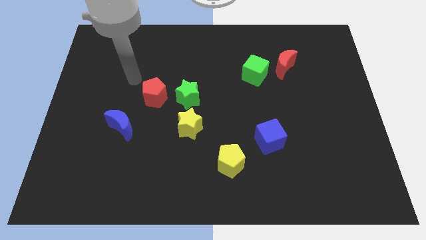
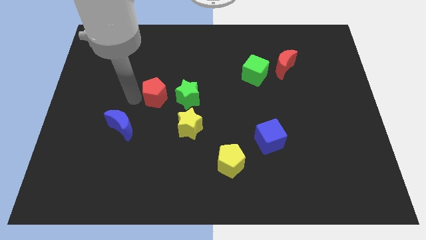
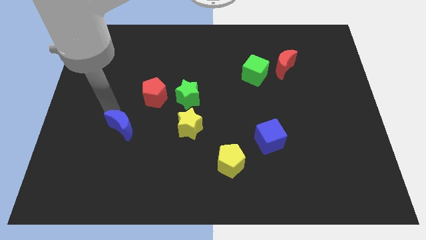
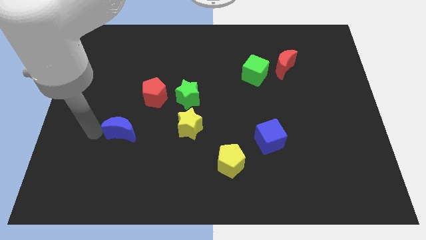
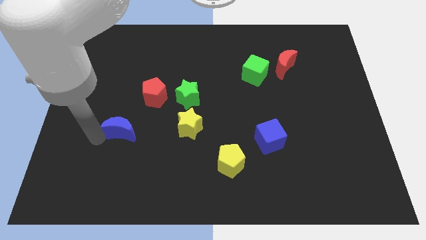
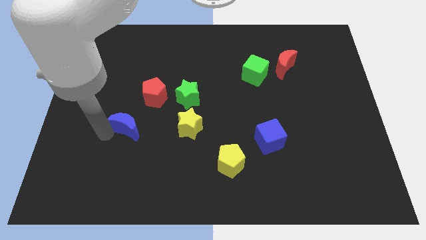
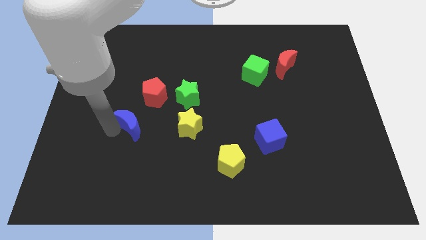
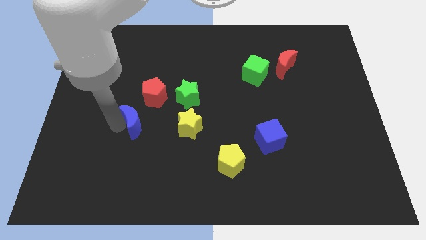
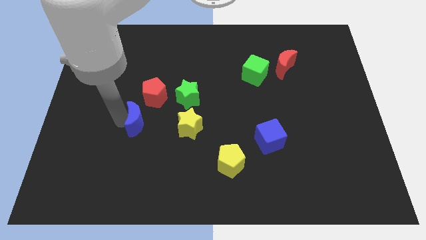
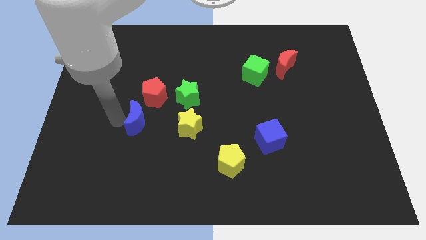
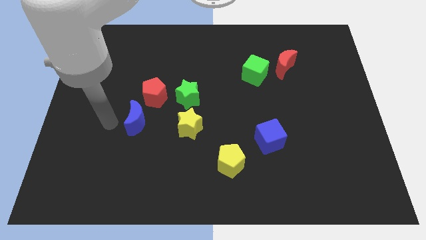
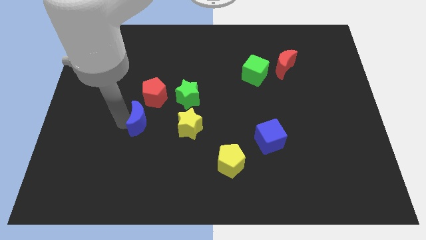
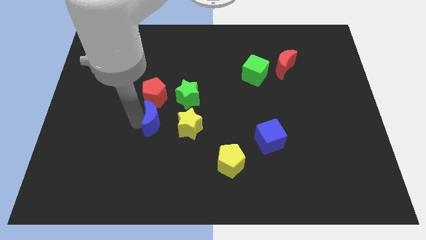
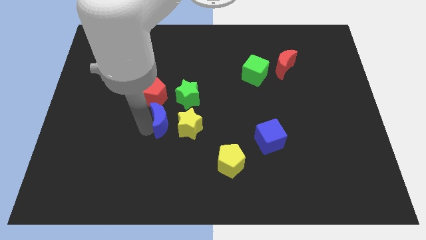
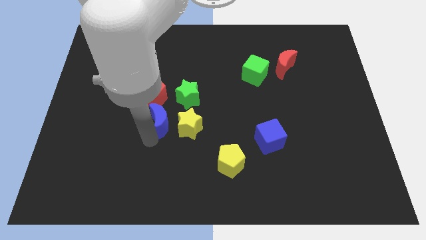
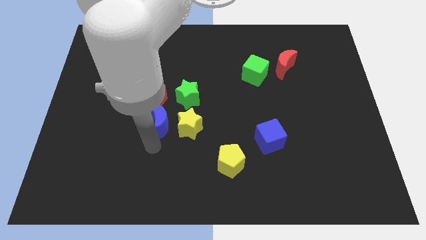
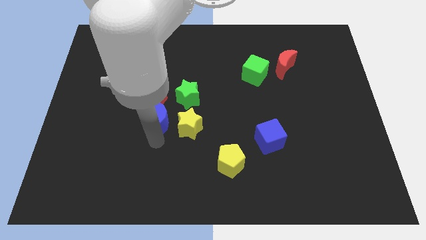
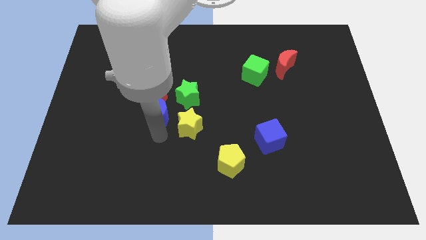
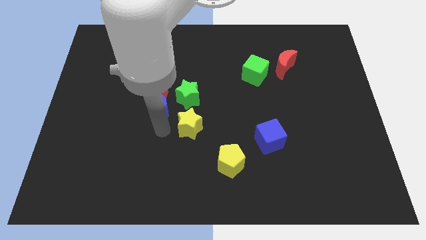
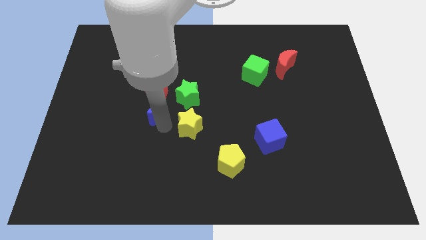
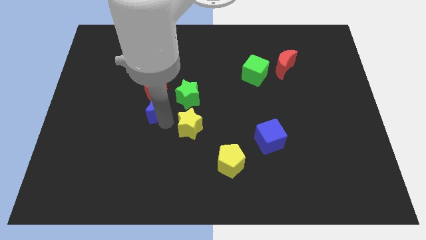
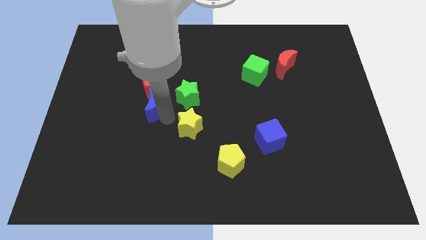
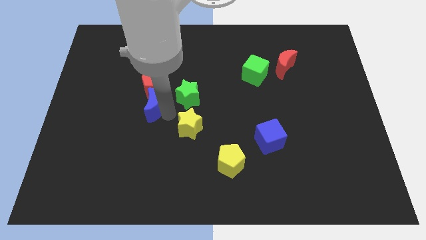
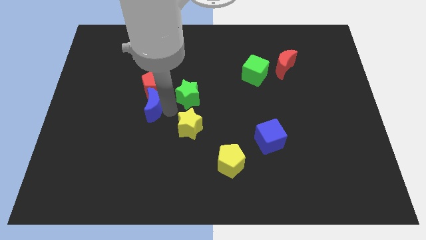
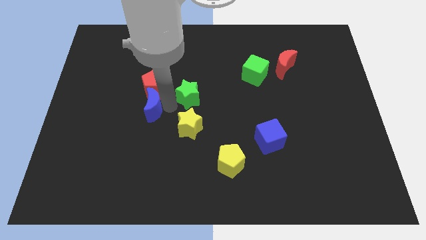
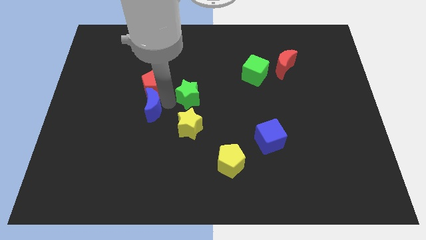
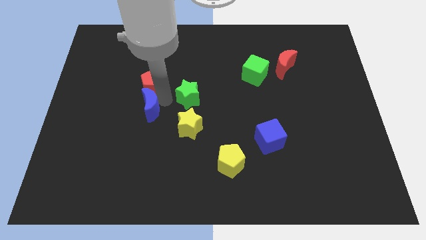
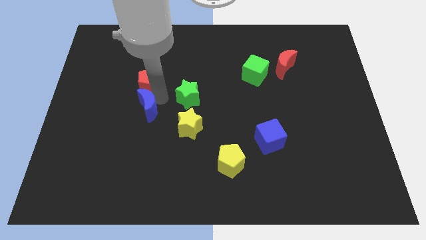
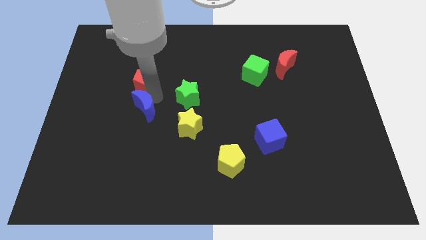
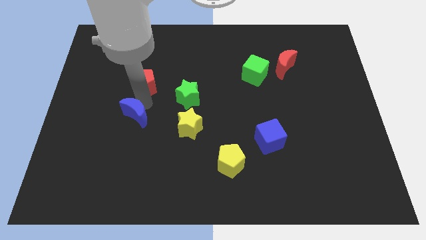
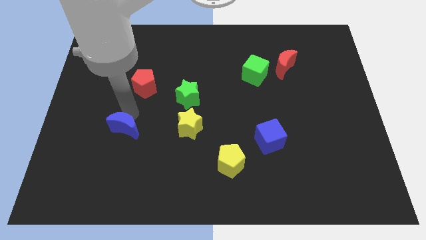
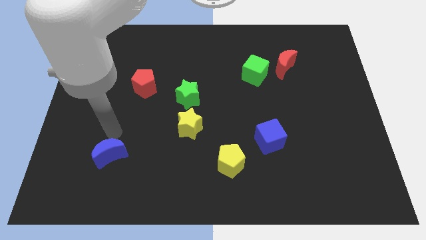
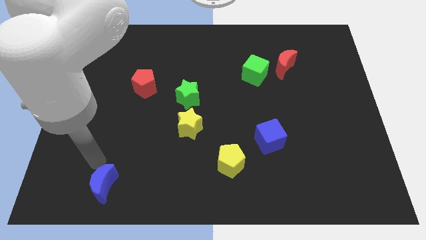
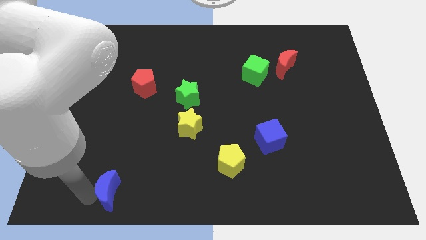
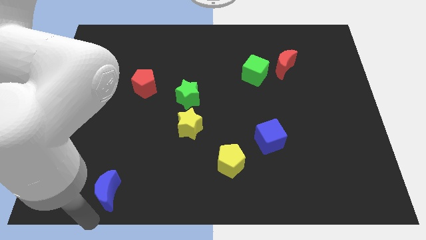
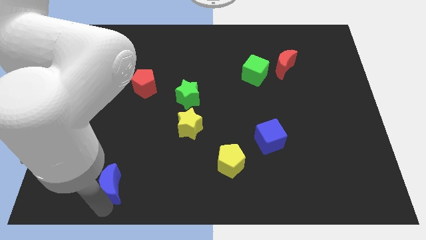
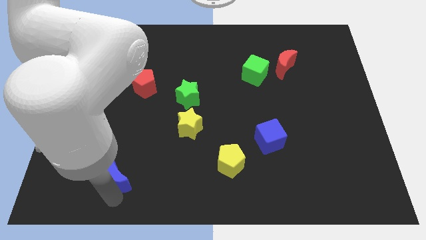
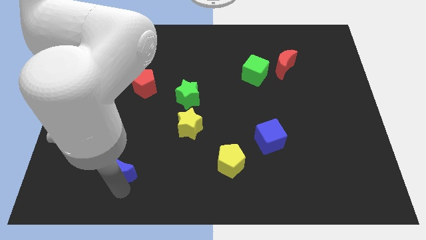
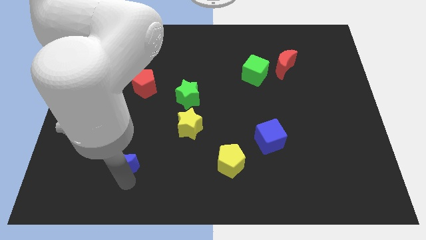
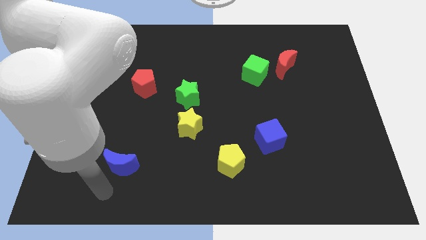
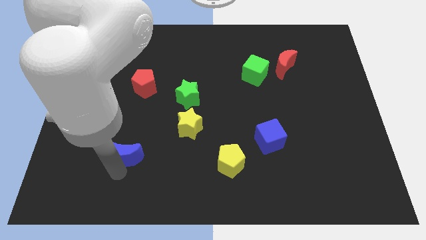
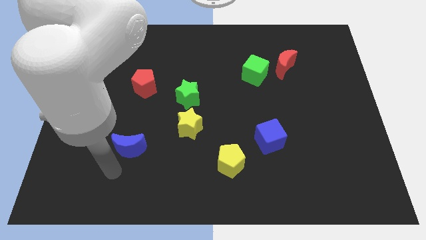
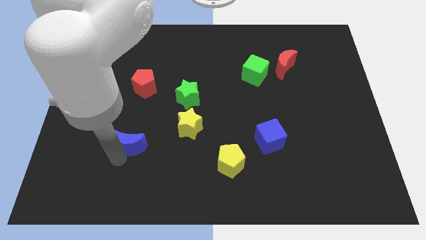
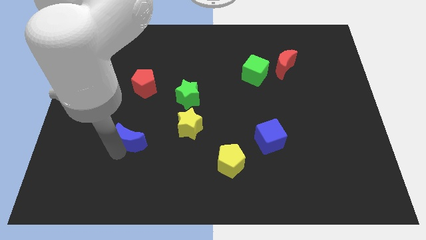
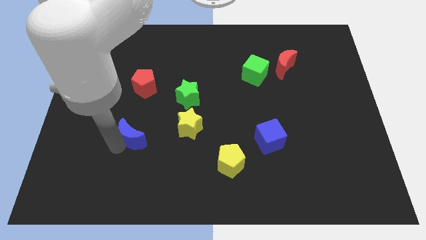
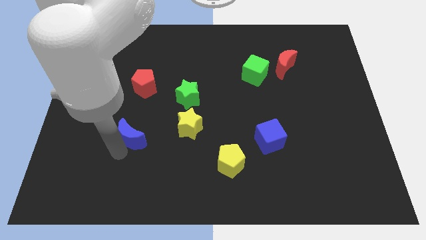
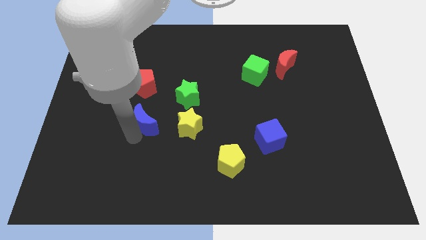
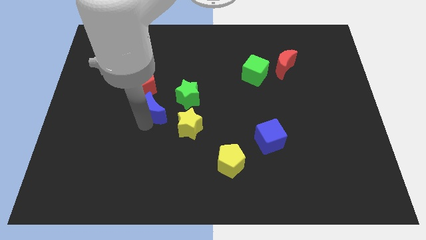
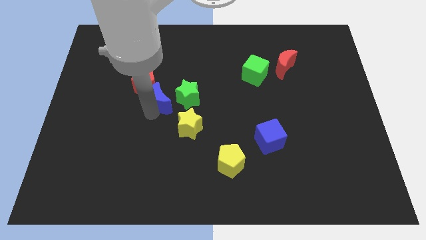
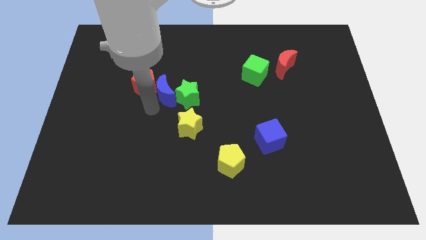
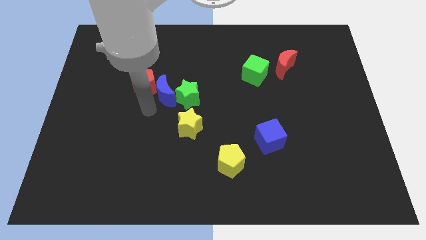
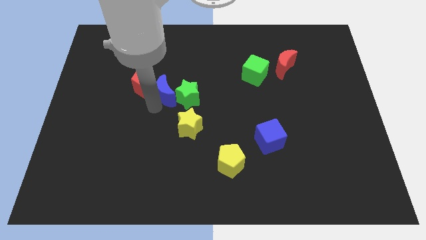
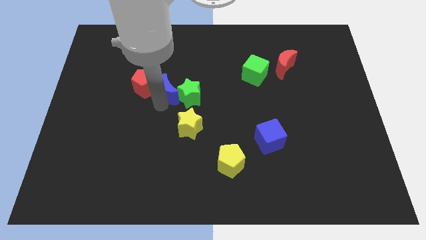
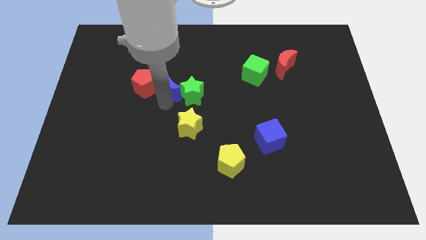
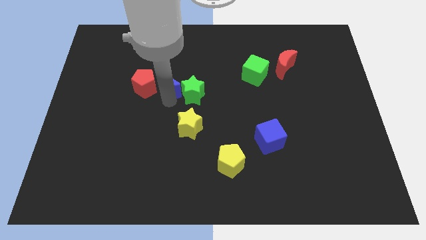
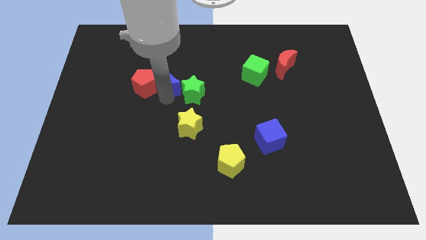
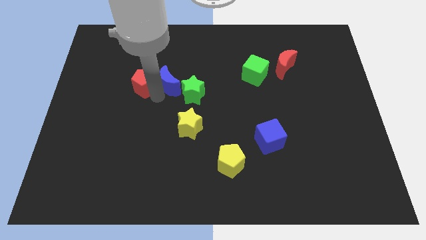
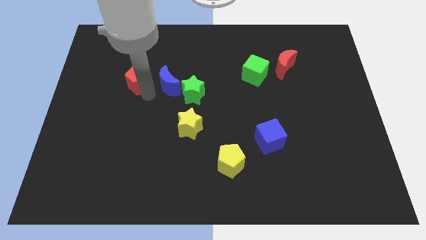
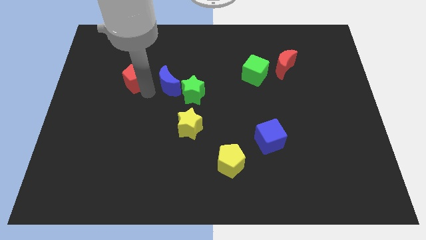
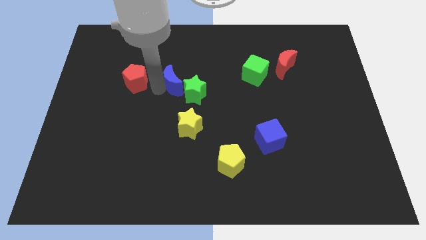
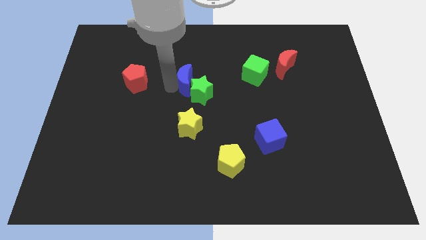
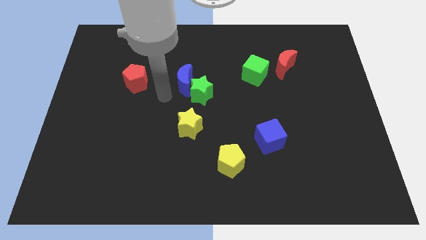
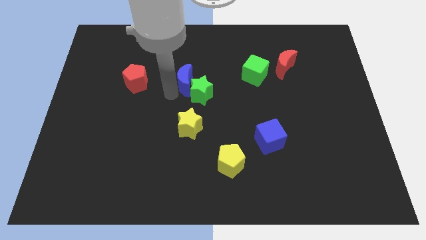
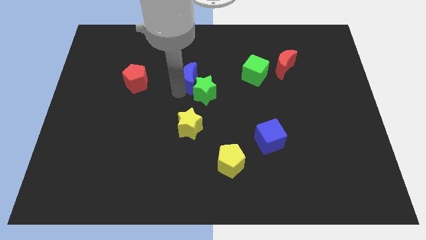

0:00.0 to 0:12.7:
move the blue moon upwards and to the right diagonally

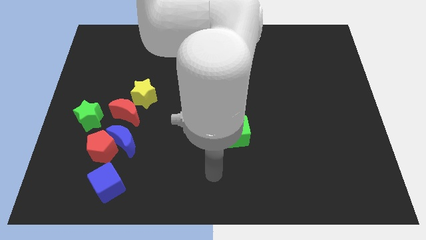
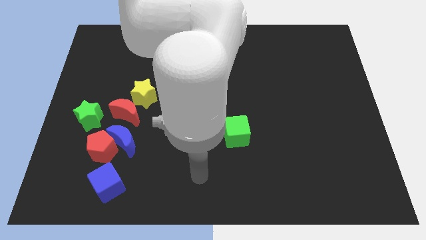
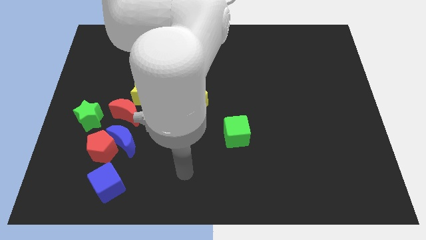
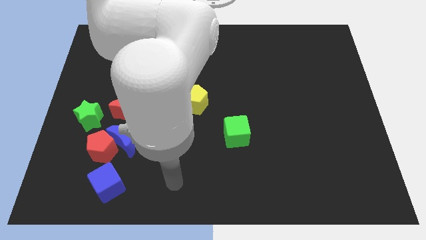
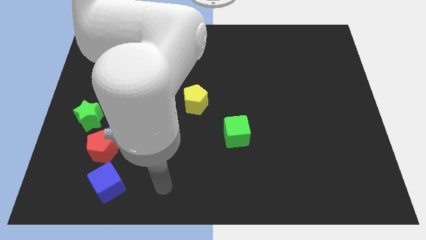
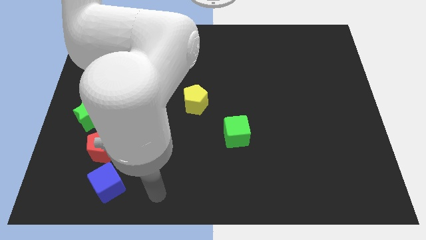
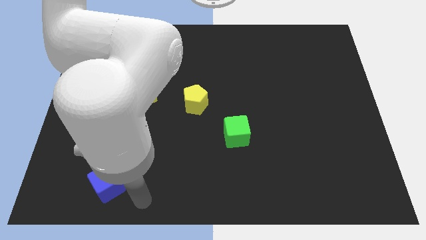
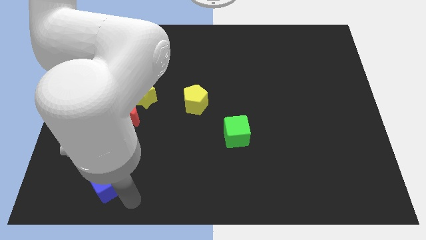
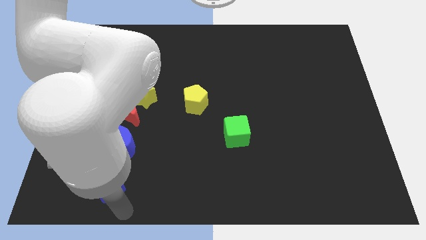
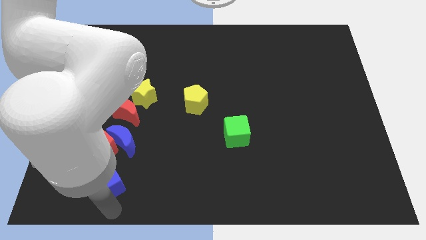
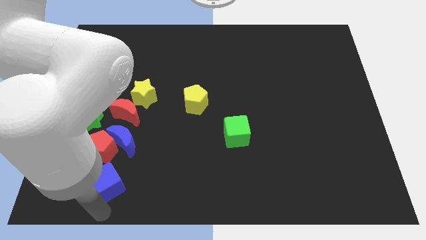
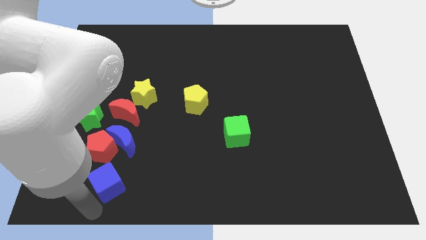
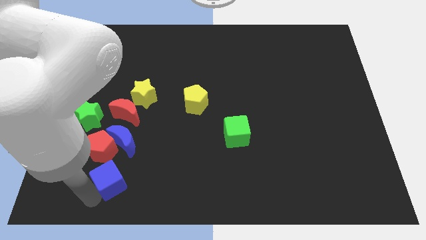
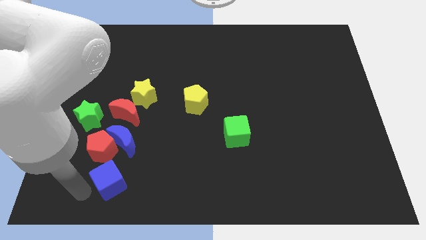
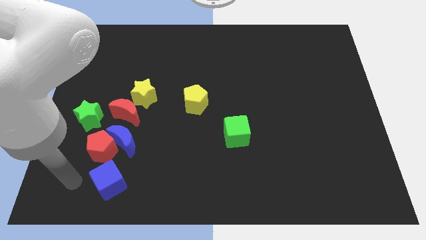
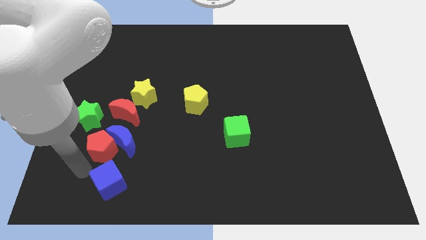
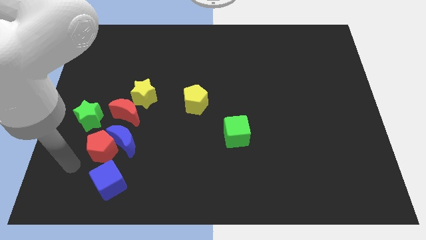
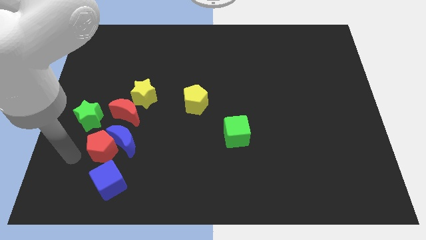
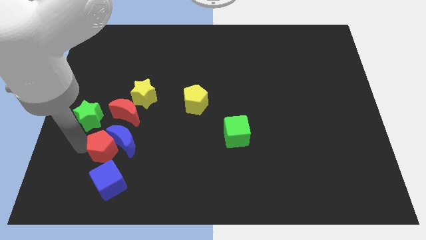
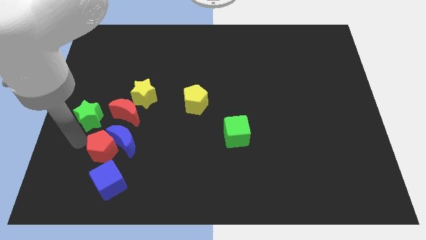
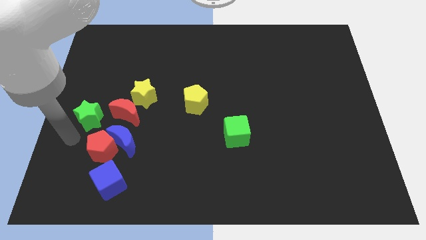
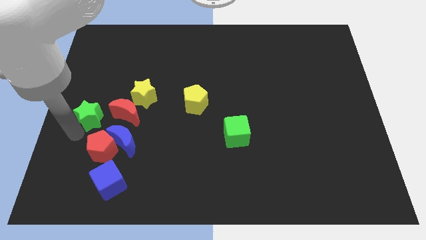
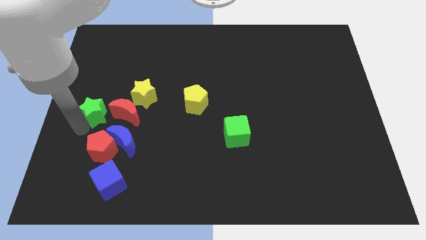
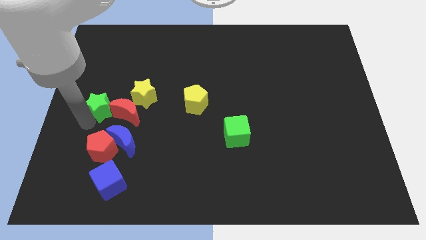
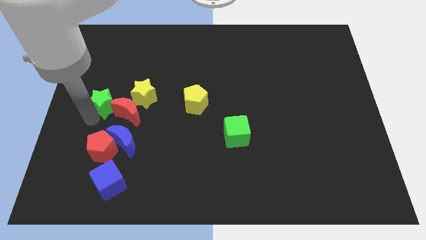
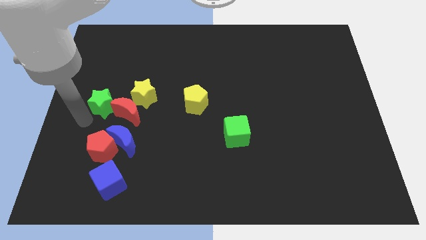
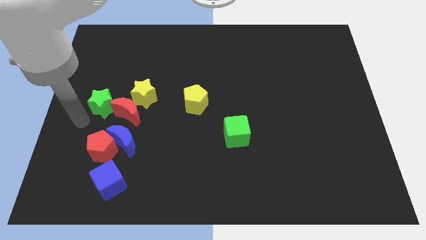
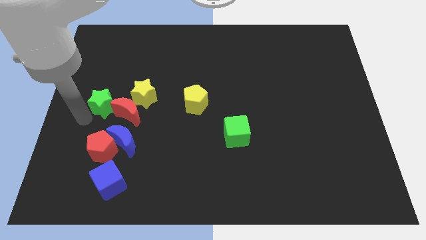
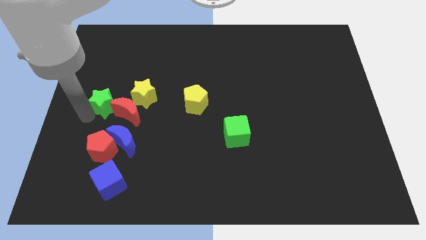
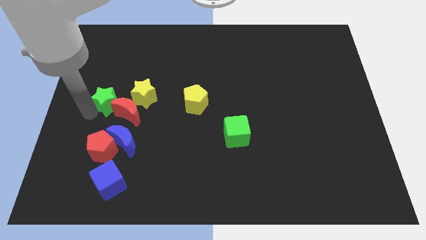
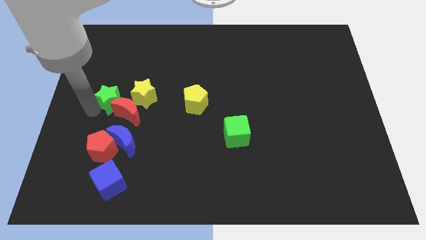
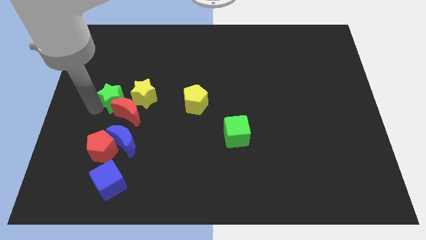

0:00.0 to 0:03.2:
slide the green star a bit upwards and to the right
